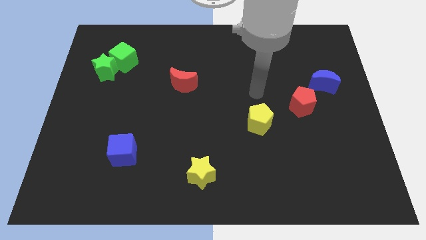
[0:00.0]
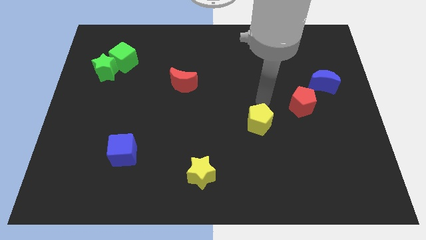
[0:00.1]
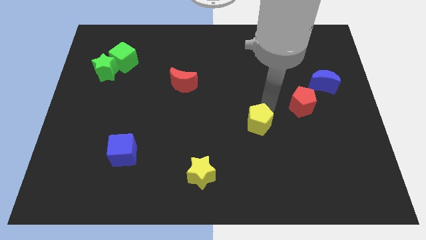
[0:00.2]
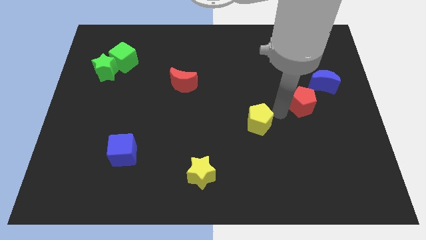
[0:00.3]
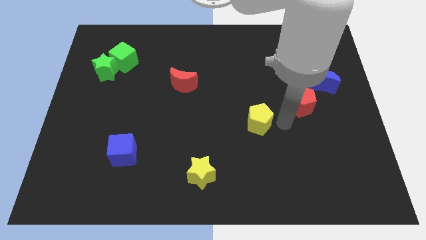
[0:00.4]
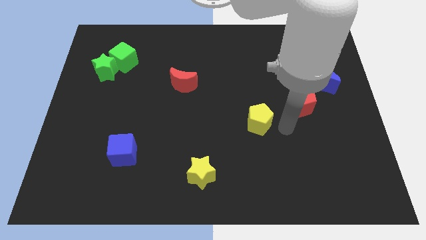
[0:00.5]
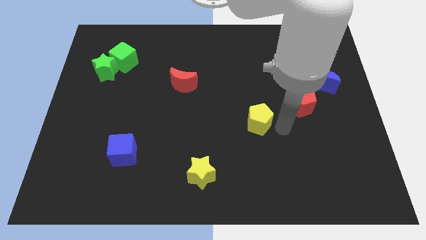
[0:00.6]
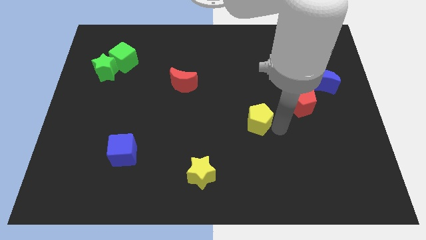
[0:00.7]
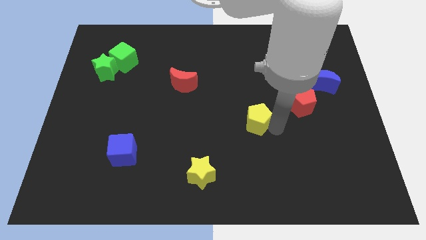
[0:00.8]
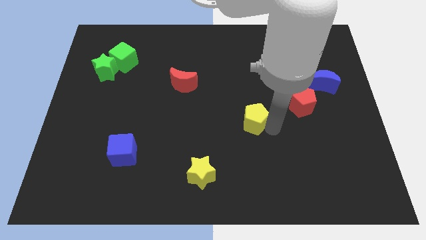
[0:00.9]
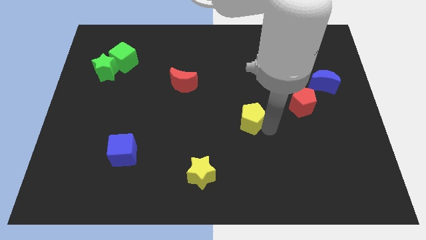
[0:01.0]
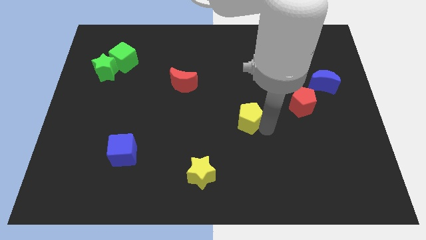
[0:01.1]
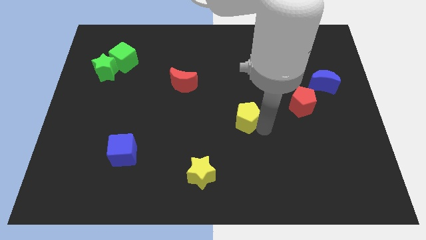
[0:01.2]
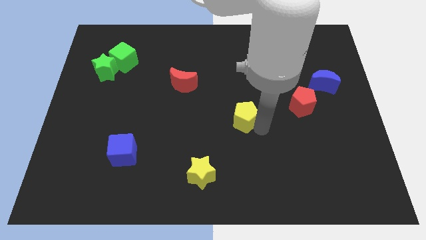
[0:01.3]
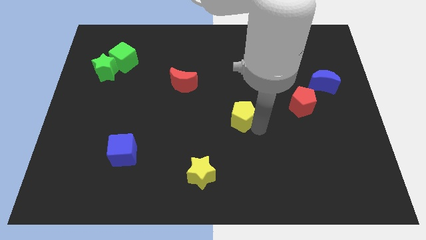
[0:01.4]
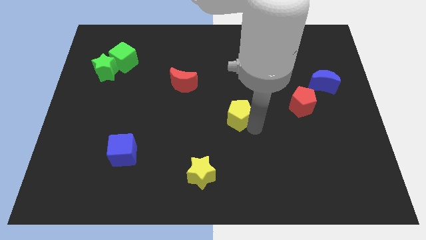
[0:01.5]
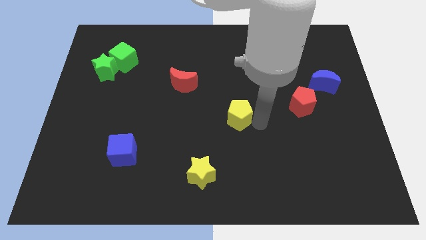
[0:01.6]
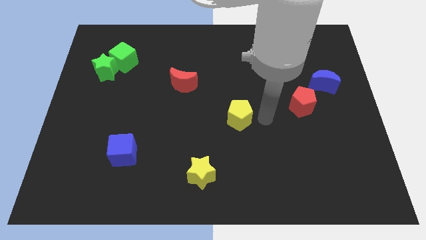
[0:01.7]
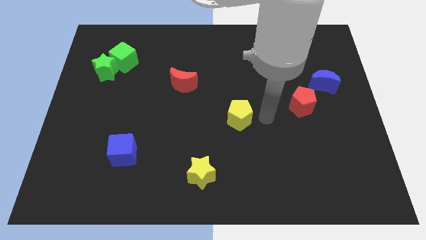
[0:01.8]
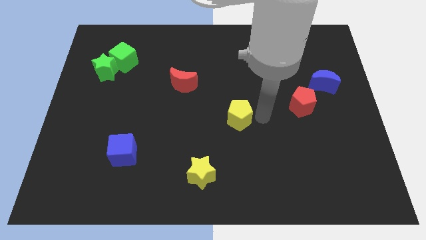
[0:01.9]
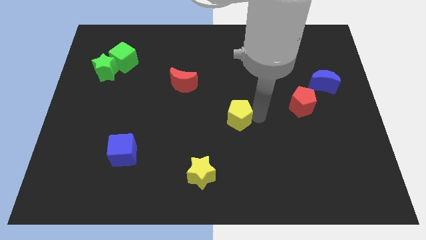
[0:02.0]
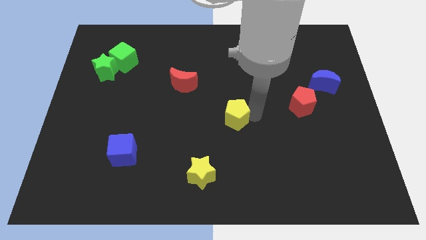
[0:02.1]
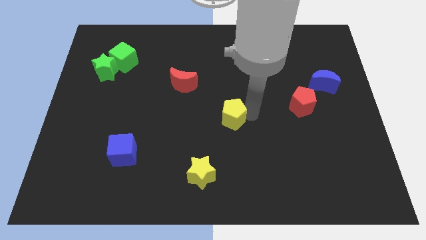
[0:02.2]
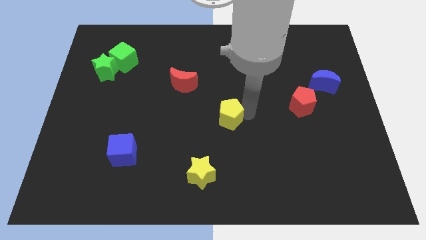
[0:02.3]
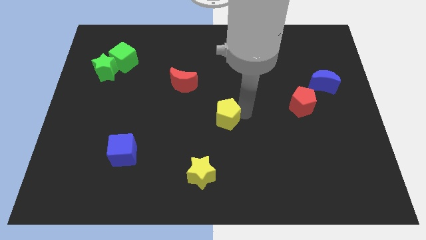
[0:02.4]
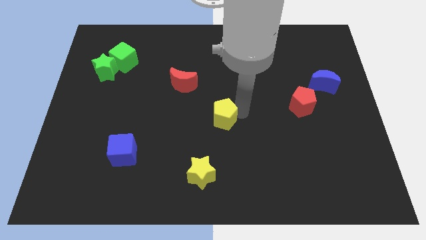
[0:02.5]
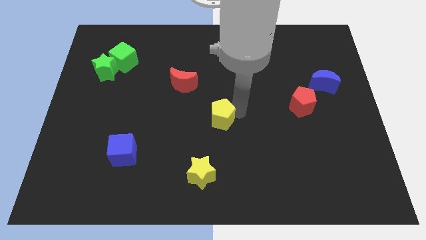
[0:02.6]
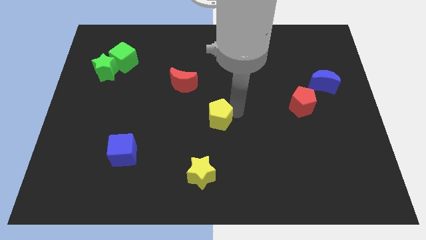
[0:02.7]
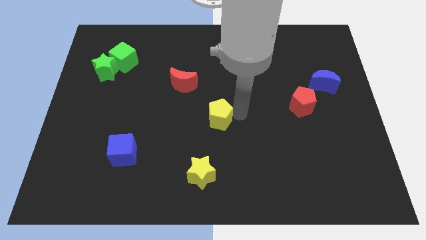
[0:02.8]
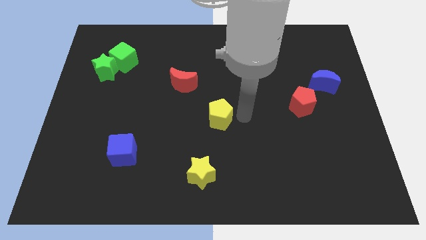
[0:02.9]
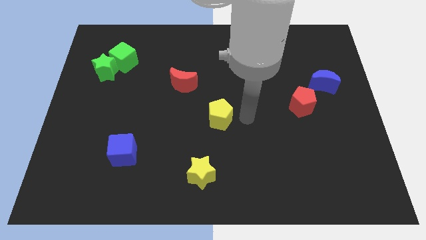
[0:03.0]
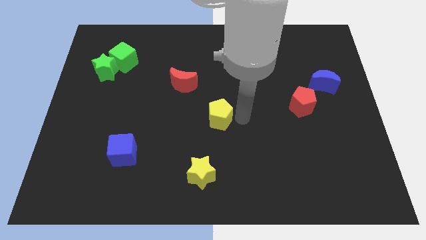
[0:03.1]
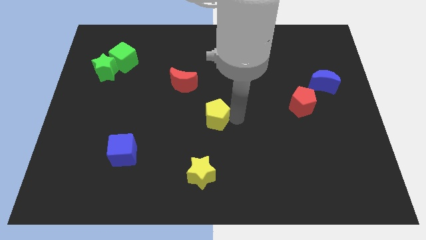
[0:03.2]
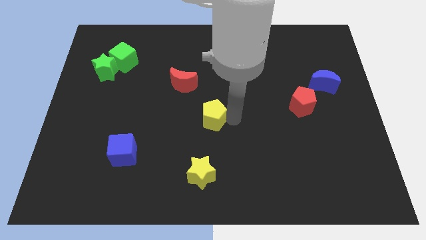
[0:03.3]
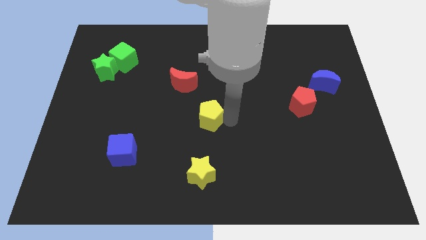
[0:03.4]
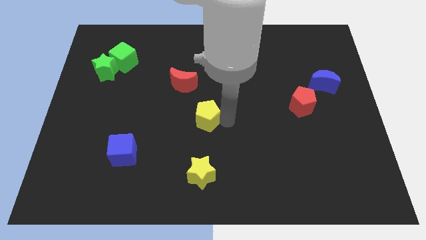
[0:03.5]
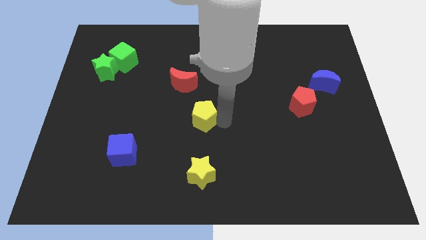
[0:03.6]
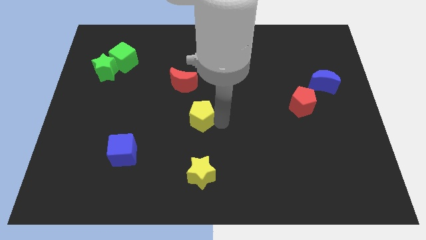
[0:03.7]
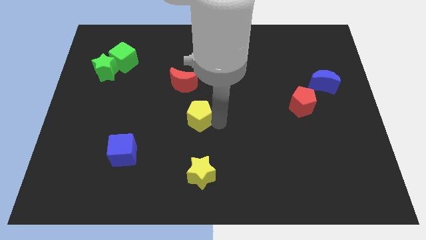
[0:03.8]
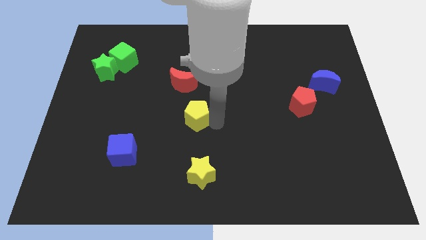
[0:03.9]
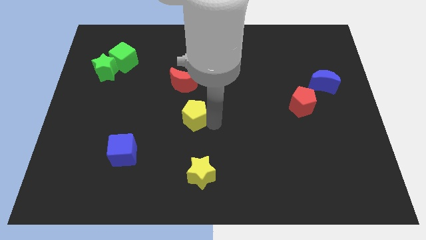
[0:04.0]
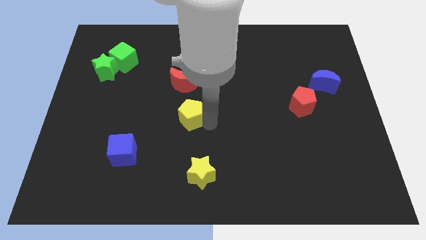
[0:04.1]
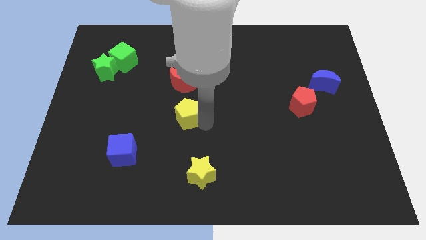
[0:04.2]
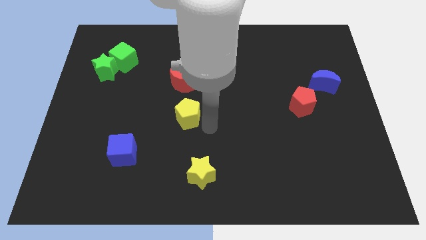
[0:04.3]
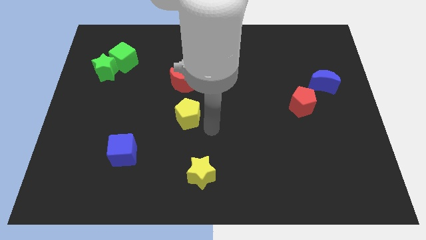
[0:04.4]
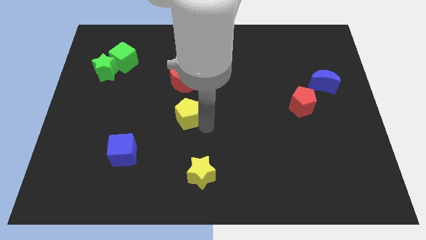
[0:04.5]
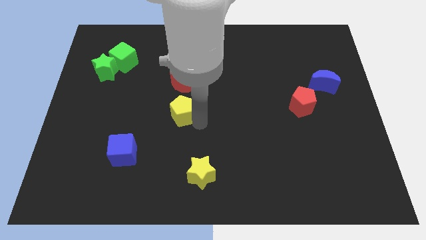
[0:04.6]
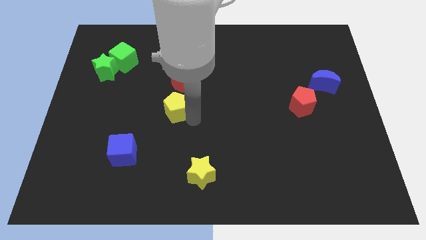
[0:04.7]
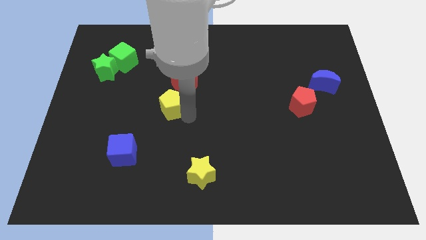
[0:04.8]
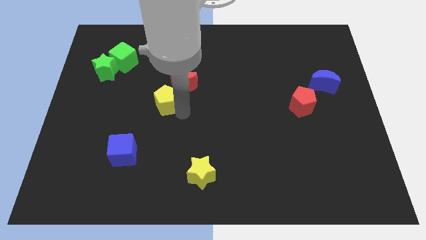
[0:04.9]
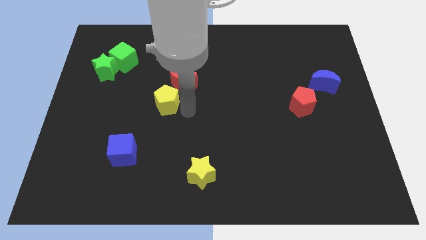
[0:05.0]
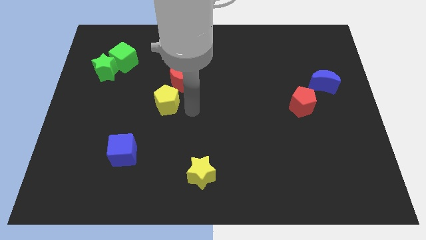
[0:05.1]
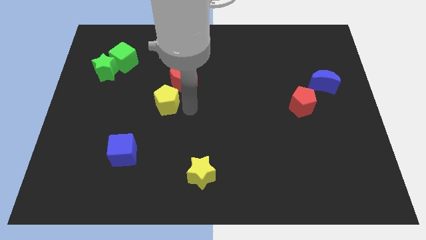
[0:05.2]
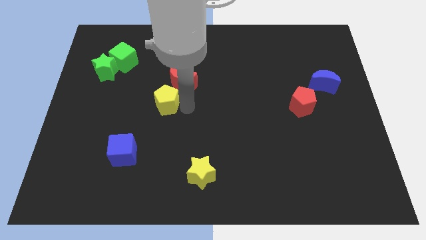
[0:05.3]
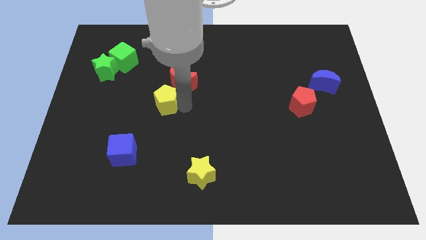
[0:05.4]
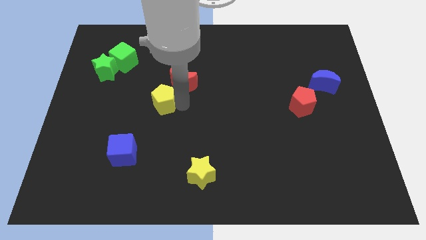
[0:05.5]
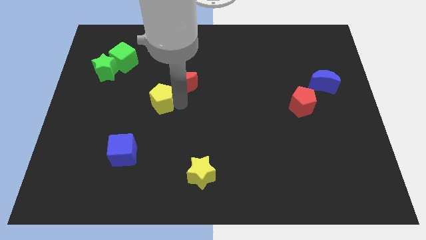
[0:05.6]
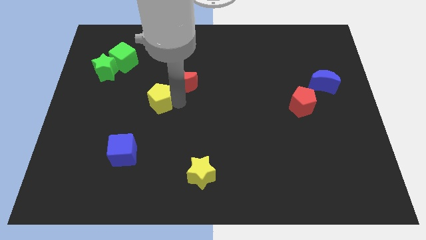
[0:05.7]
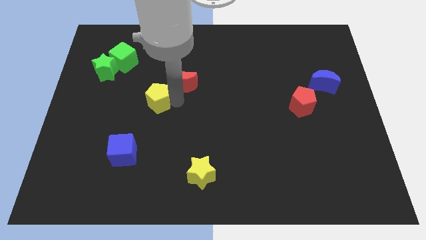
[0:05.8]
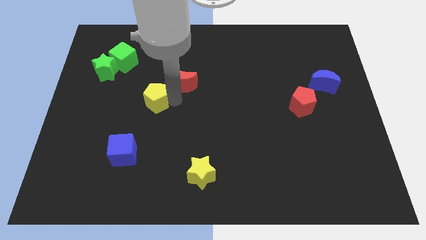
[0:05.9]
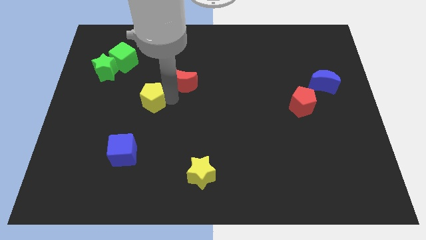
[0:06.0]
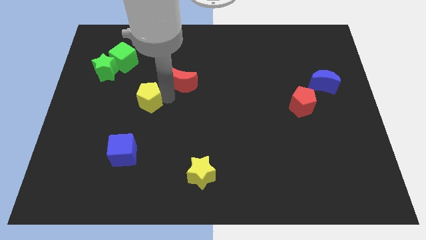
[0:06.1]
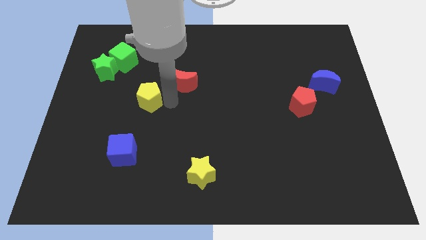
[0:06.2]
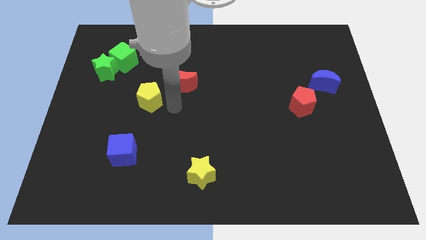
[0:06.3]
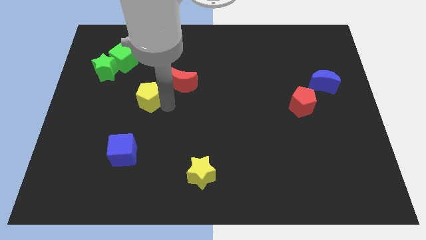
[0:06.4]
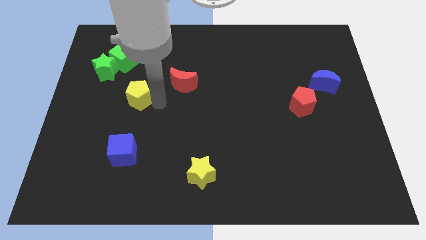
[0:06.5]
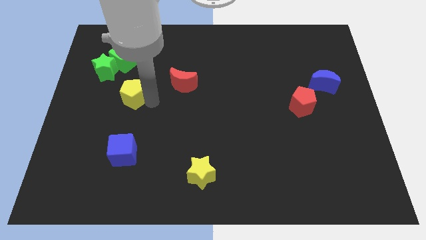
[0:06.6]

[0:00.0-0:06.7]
put the yellow pentagon to the bottom of the green cube

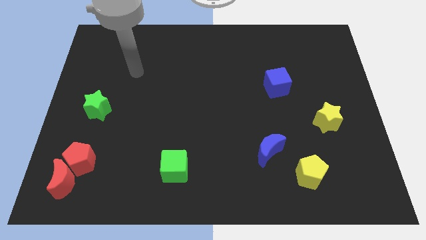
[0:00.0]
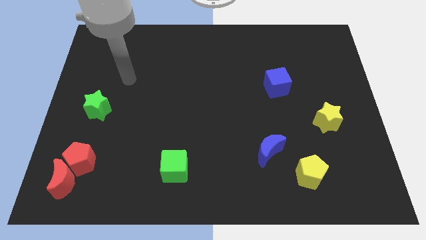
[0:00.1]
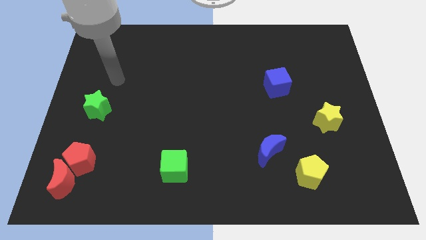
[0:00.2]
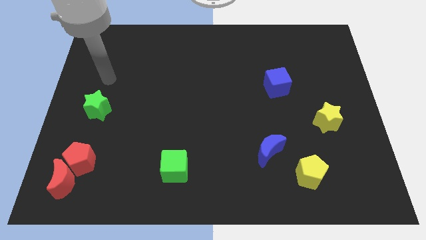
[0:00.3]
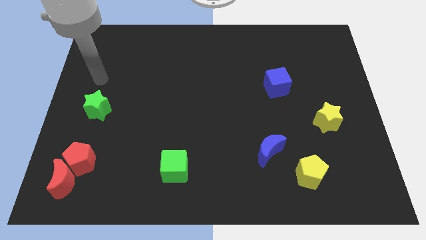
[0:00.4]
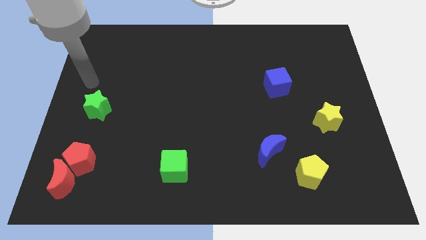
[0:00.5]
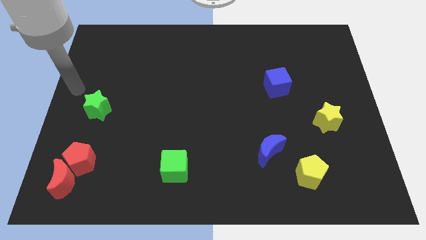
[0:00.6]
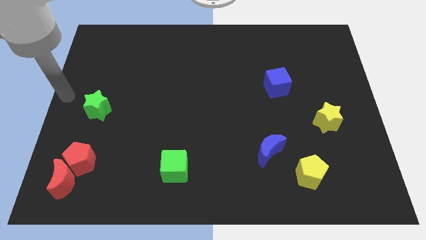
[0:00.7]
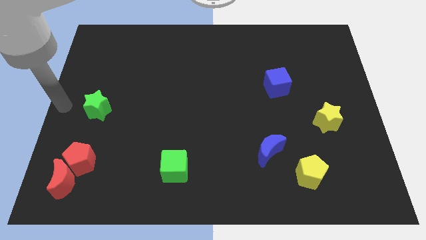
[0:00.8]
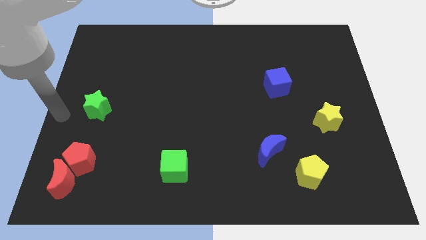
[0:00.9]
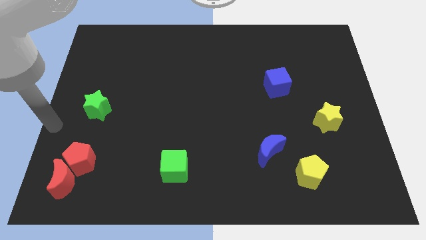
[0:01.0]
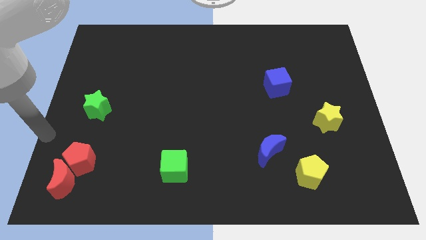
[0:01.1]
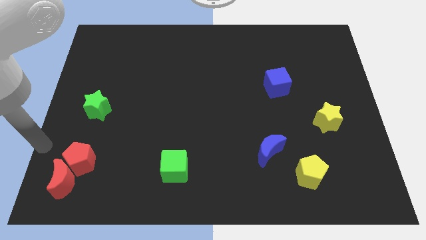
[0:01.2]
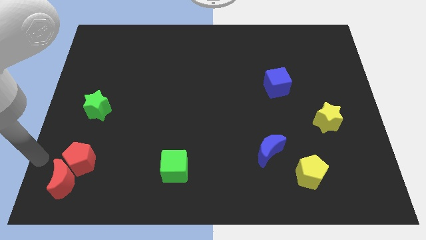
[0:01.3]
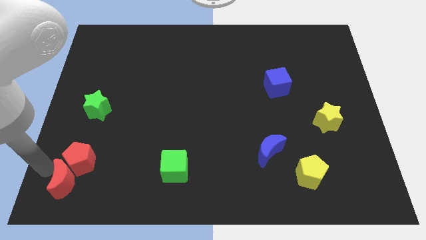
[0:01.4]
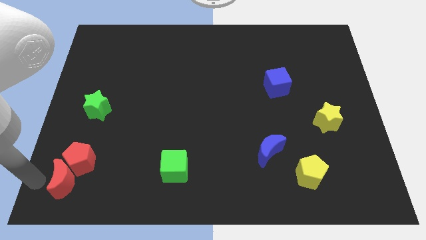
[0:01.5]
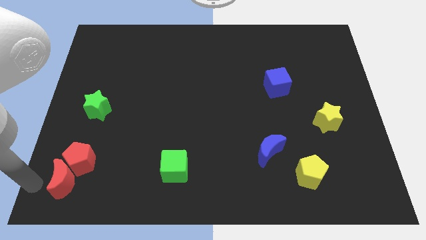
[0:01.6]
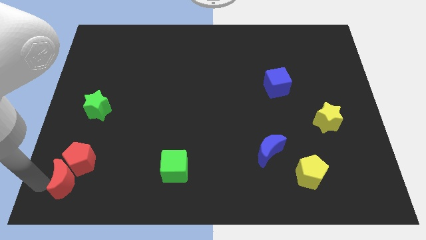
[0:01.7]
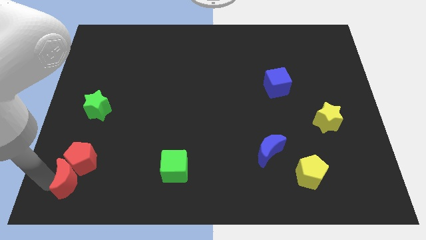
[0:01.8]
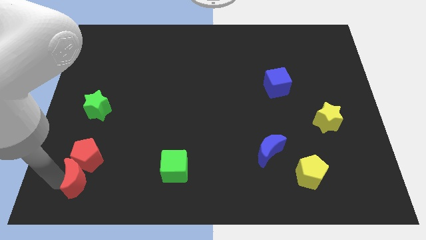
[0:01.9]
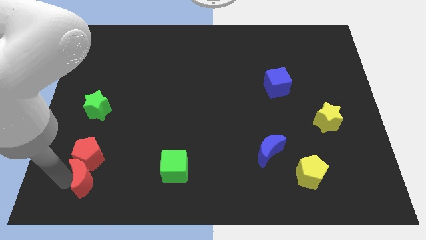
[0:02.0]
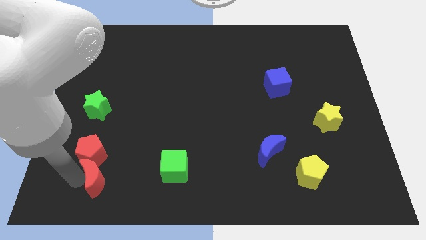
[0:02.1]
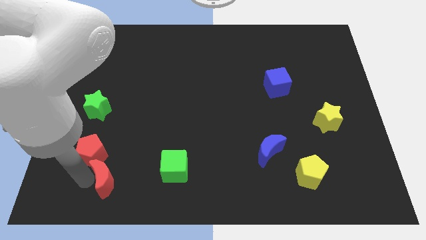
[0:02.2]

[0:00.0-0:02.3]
slide the red moon just left of the green cube
